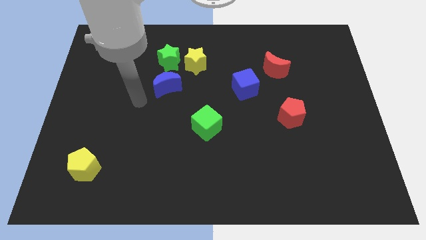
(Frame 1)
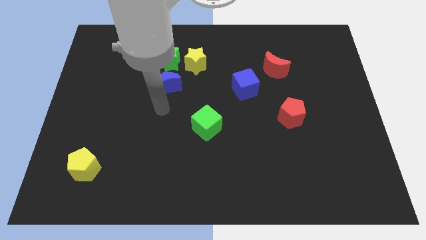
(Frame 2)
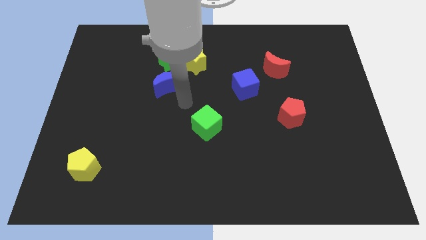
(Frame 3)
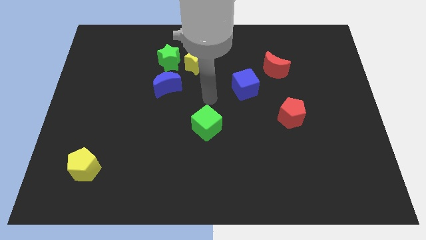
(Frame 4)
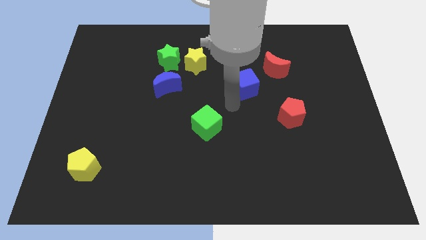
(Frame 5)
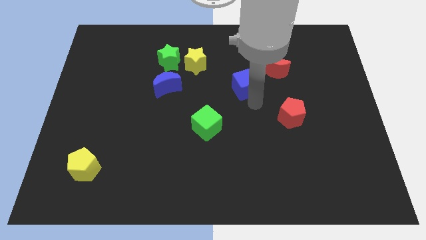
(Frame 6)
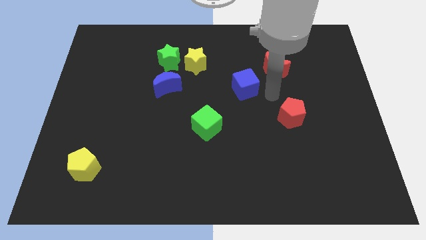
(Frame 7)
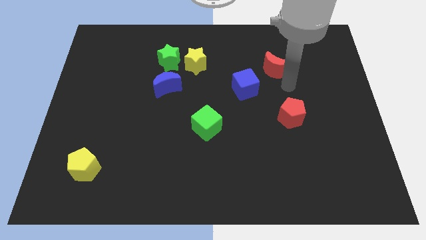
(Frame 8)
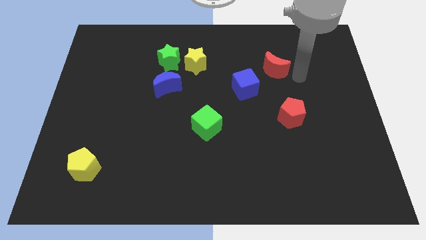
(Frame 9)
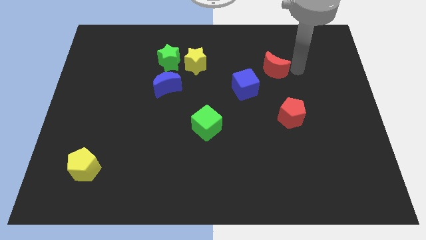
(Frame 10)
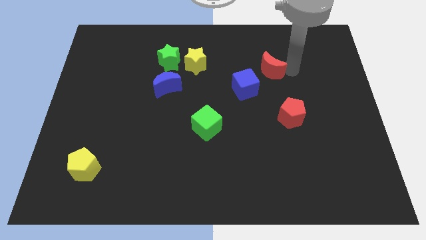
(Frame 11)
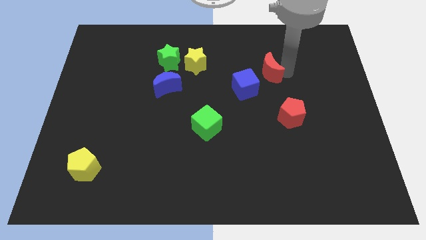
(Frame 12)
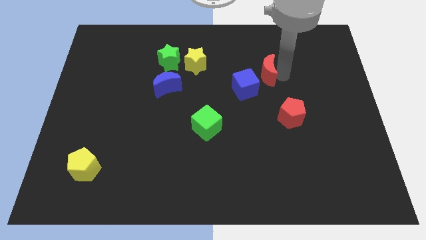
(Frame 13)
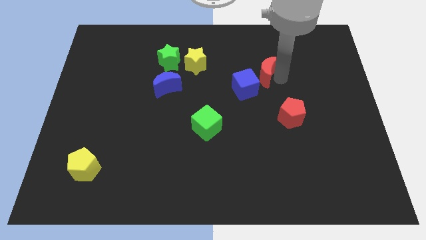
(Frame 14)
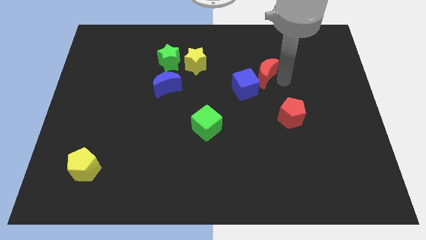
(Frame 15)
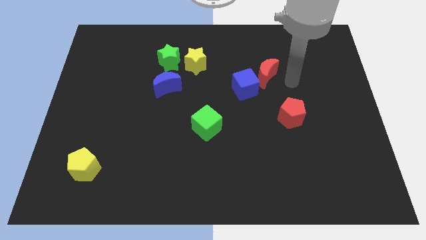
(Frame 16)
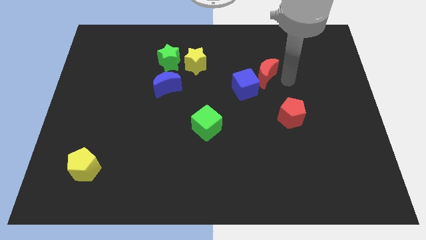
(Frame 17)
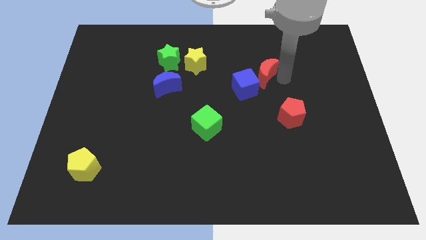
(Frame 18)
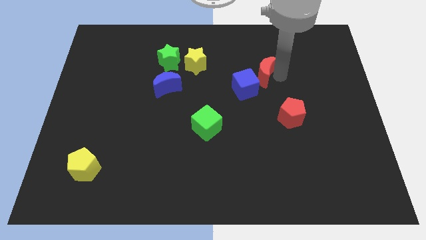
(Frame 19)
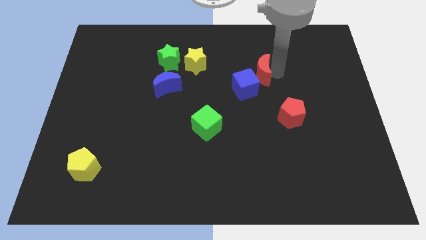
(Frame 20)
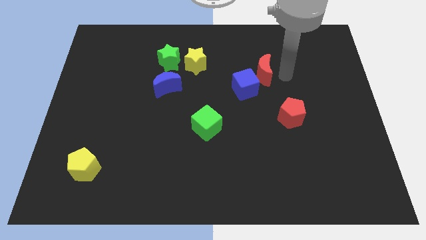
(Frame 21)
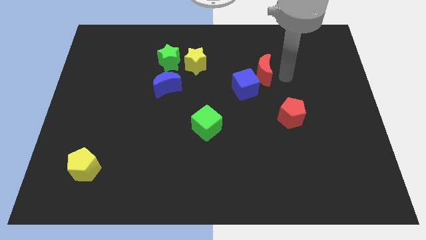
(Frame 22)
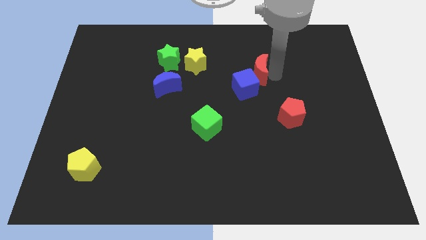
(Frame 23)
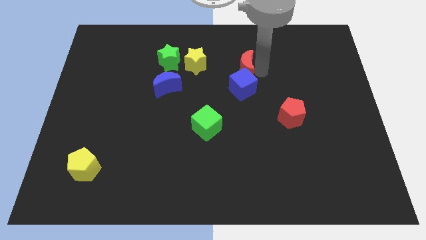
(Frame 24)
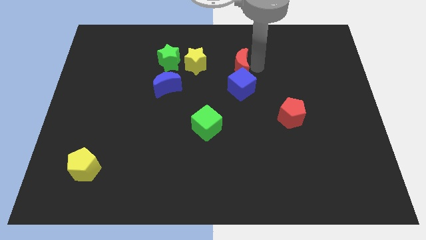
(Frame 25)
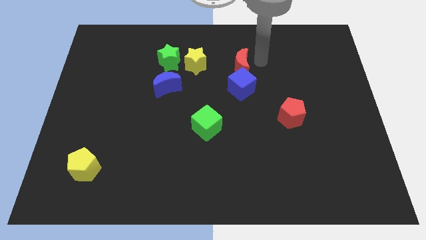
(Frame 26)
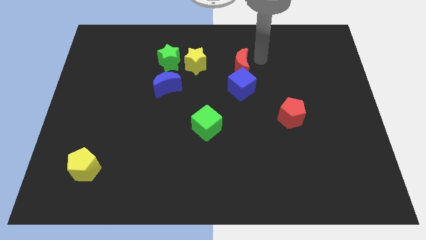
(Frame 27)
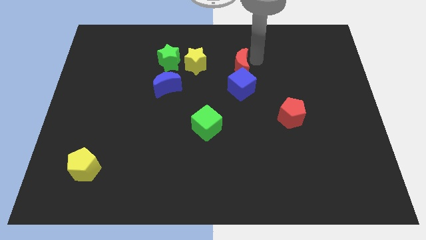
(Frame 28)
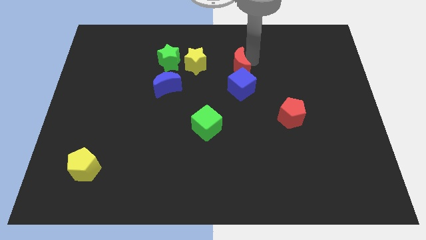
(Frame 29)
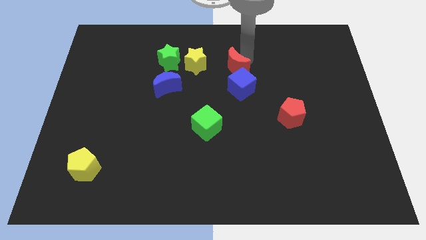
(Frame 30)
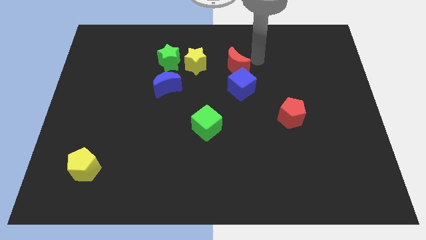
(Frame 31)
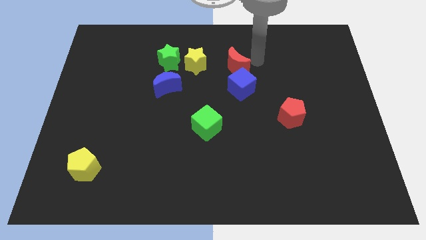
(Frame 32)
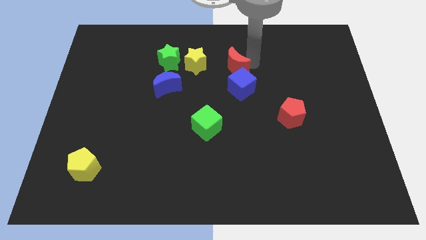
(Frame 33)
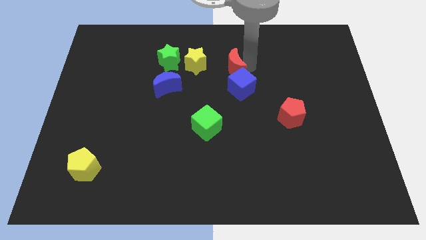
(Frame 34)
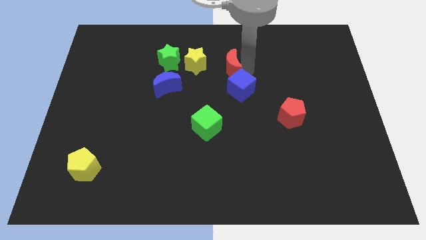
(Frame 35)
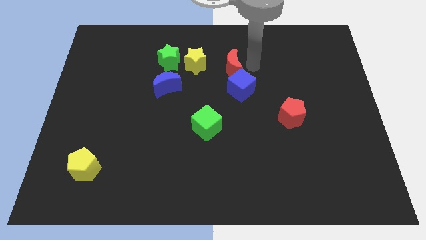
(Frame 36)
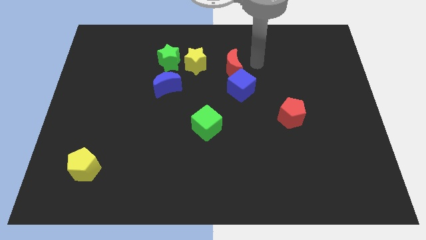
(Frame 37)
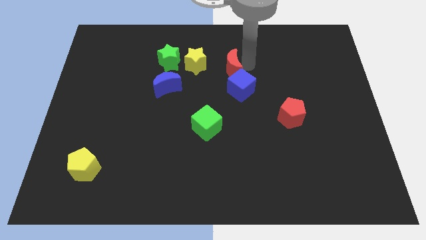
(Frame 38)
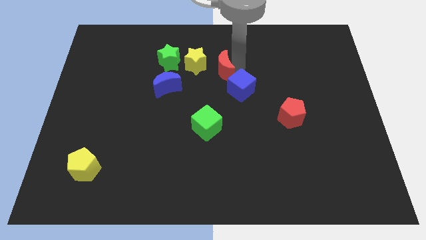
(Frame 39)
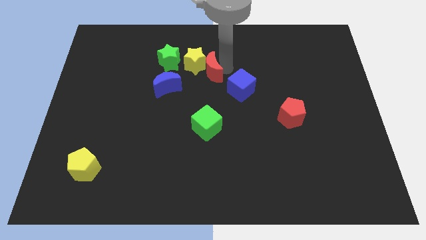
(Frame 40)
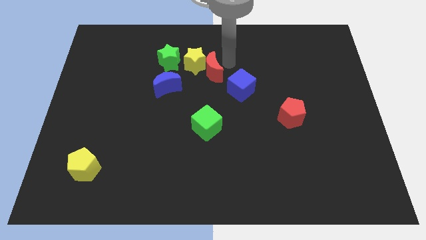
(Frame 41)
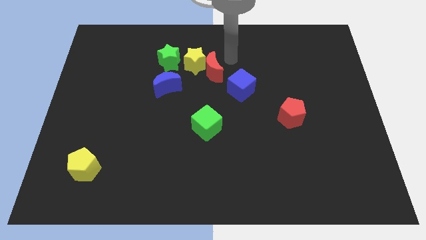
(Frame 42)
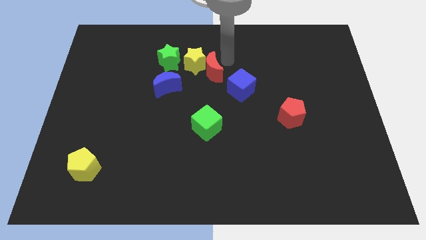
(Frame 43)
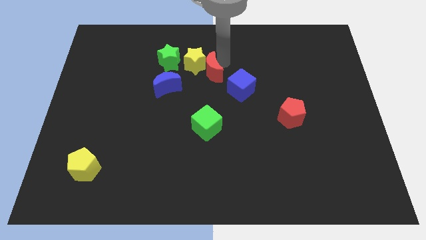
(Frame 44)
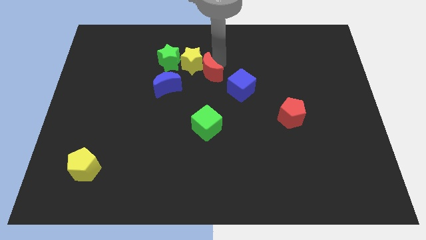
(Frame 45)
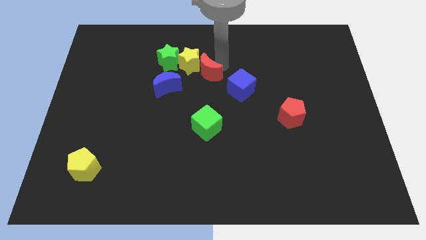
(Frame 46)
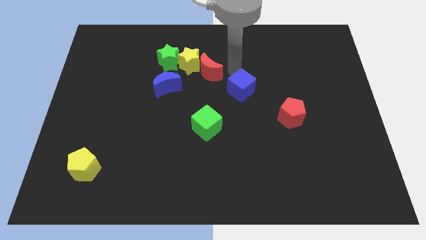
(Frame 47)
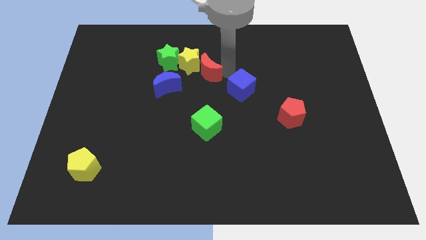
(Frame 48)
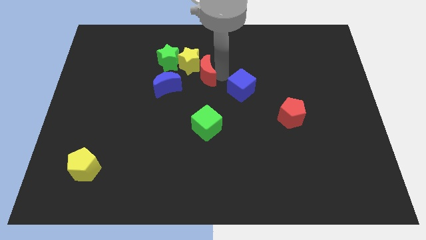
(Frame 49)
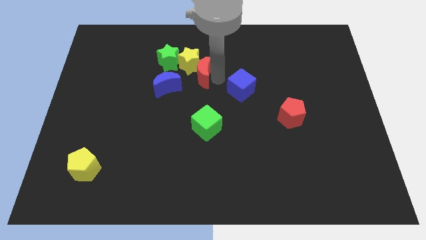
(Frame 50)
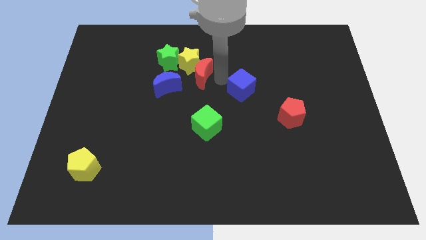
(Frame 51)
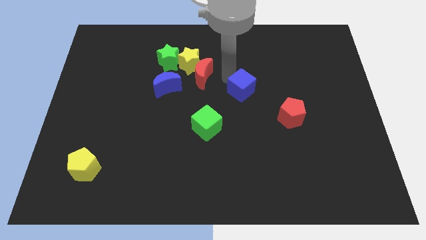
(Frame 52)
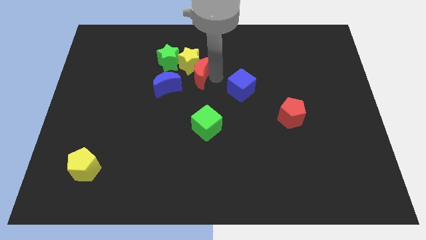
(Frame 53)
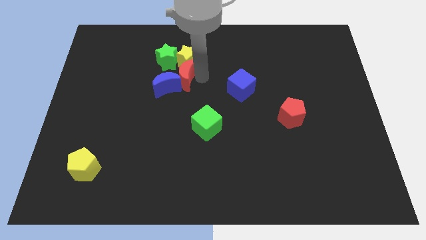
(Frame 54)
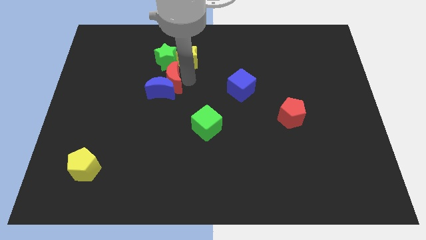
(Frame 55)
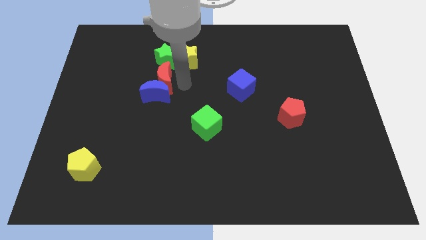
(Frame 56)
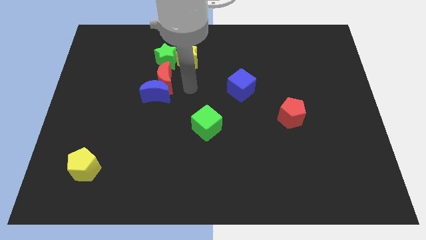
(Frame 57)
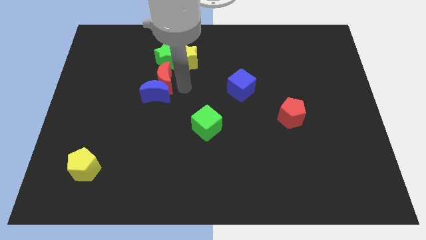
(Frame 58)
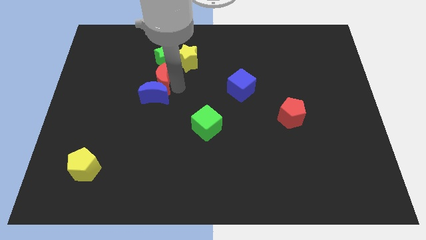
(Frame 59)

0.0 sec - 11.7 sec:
push the red moon to the bottom left of the green star

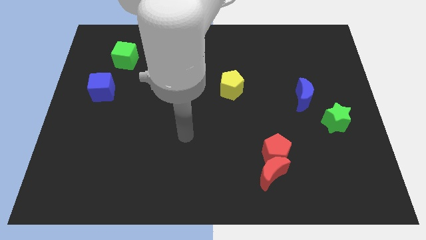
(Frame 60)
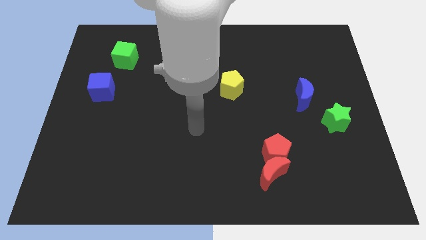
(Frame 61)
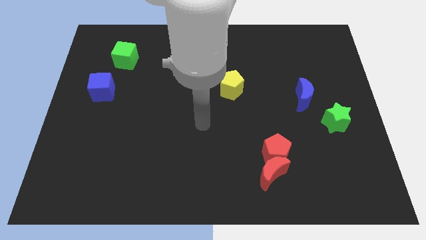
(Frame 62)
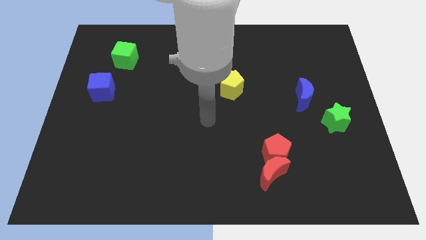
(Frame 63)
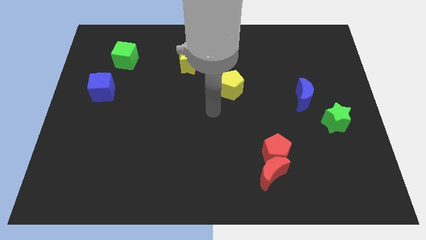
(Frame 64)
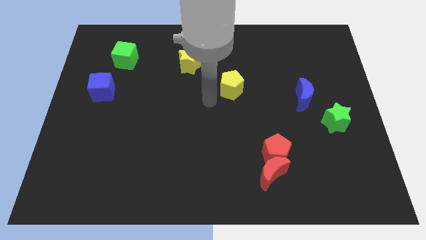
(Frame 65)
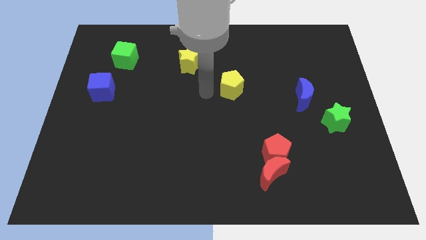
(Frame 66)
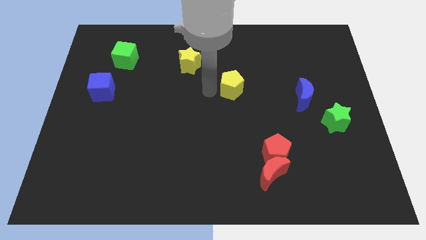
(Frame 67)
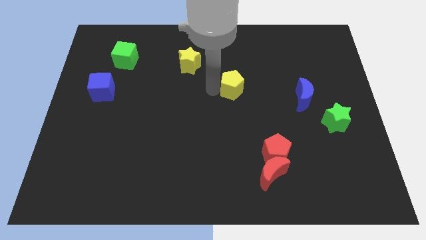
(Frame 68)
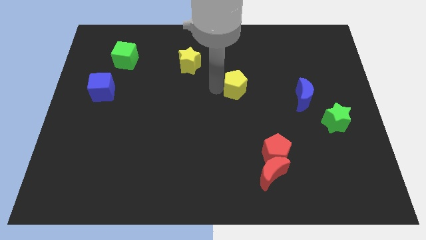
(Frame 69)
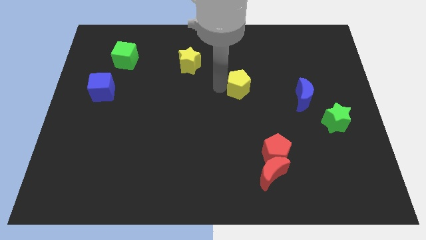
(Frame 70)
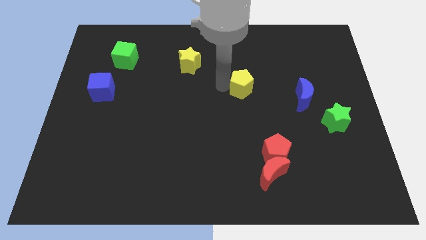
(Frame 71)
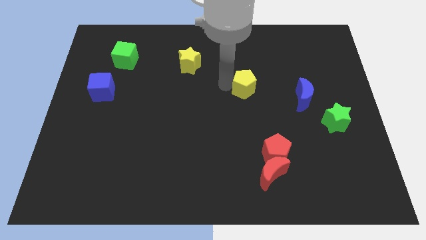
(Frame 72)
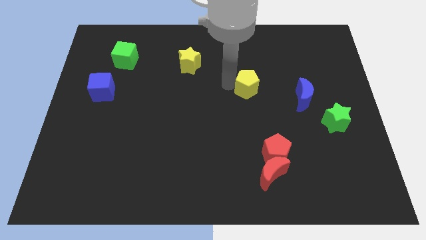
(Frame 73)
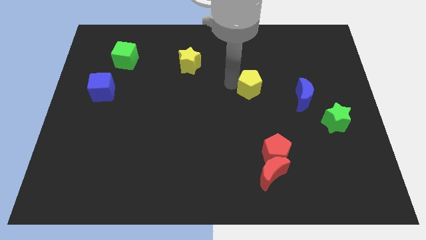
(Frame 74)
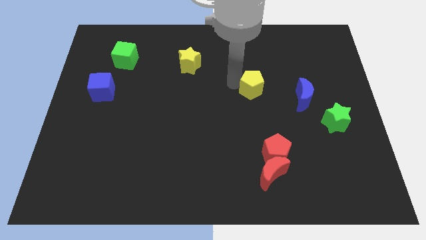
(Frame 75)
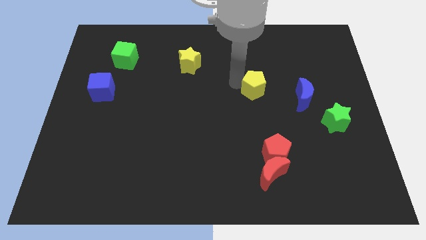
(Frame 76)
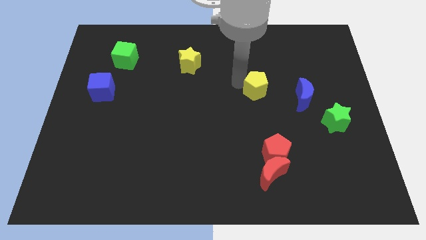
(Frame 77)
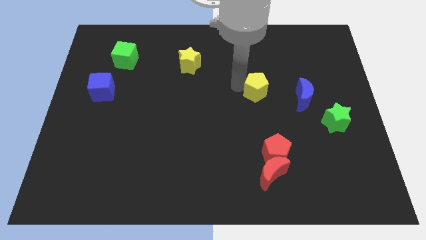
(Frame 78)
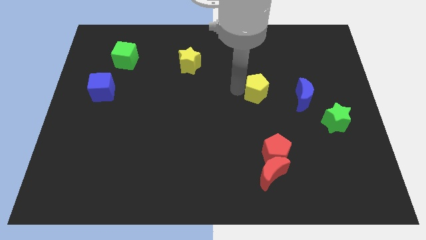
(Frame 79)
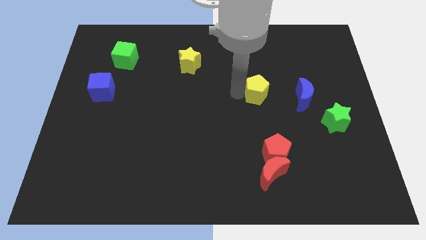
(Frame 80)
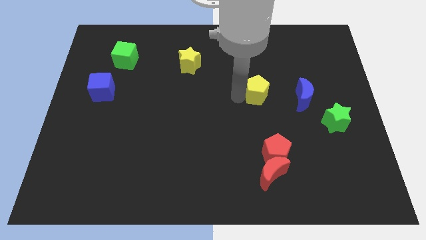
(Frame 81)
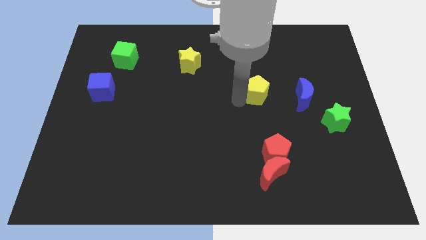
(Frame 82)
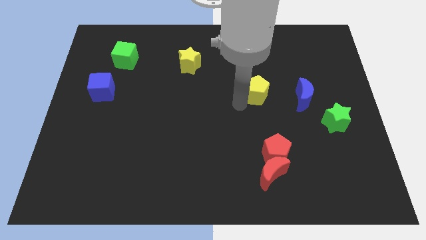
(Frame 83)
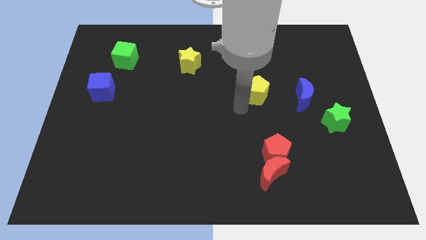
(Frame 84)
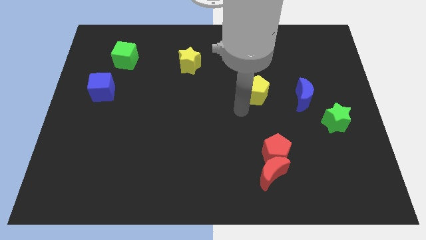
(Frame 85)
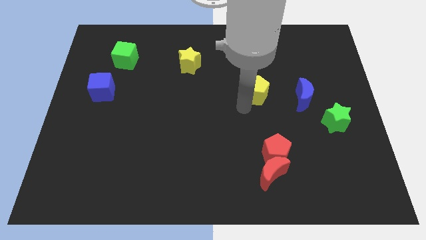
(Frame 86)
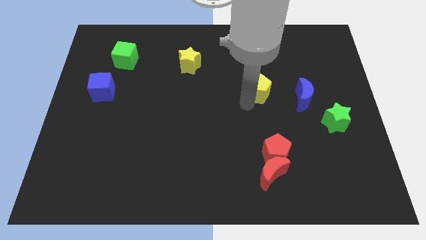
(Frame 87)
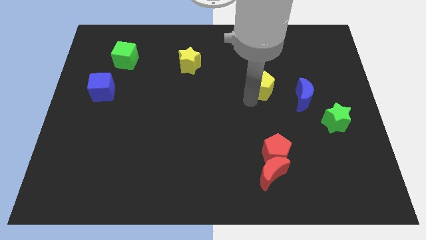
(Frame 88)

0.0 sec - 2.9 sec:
put the yellow pentagon to the top left side of the blue moon
